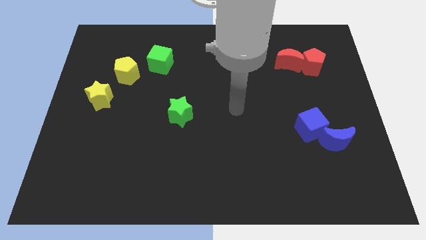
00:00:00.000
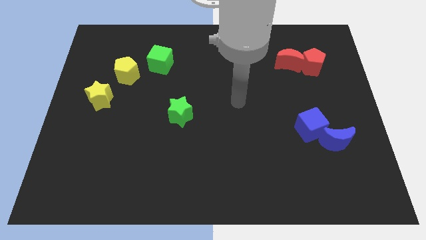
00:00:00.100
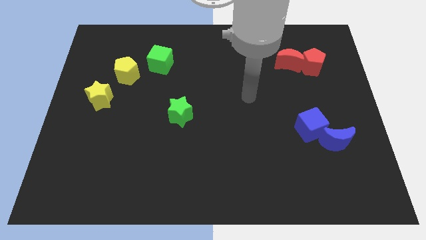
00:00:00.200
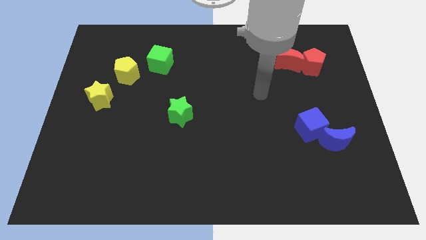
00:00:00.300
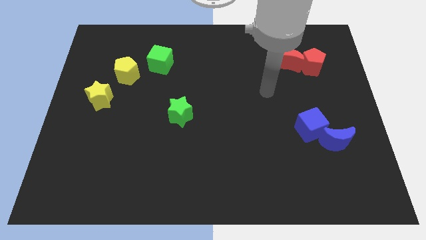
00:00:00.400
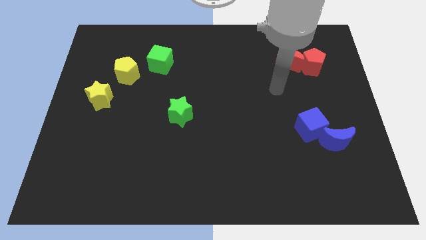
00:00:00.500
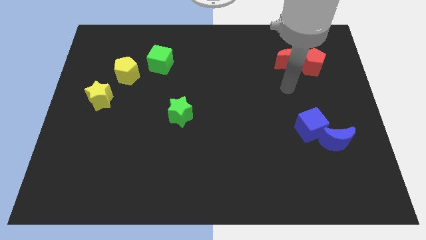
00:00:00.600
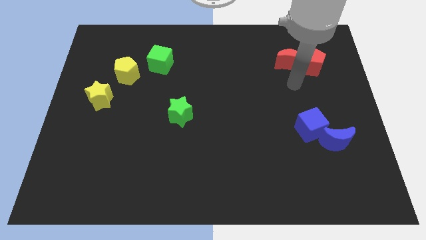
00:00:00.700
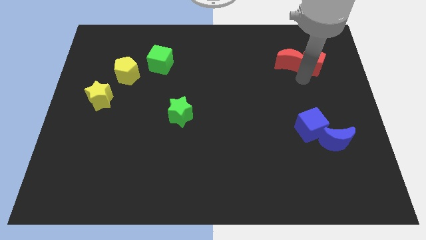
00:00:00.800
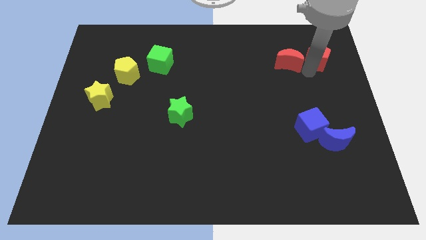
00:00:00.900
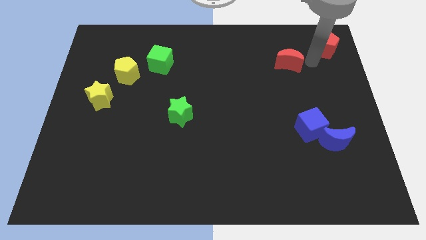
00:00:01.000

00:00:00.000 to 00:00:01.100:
move the red moon away from the red pentagon

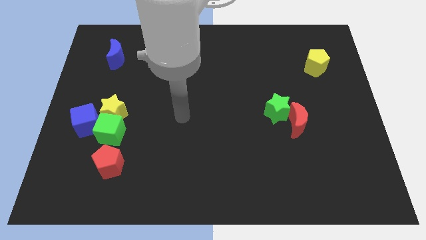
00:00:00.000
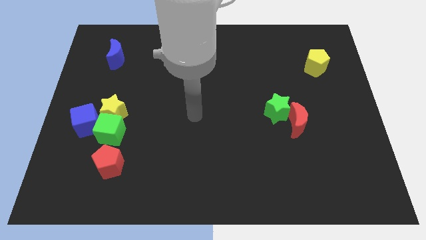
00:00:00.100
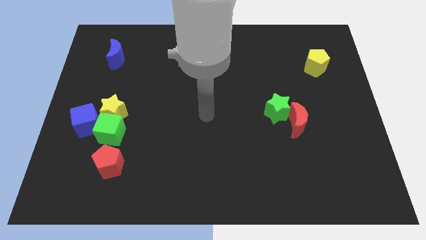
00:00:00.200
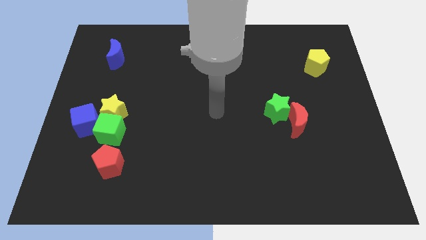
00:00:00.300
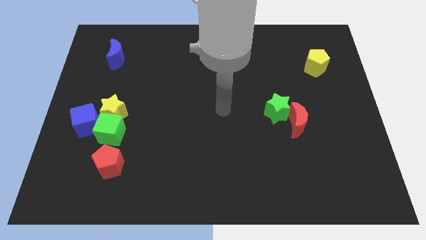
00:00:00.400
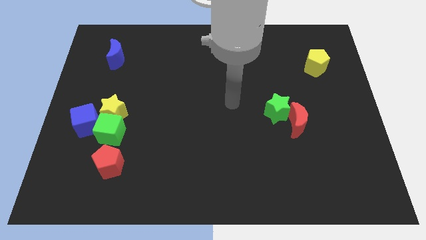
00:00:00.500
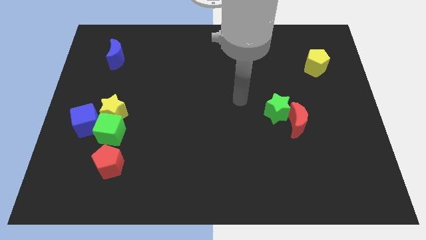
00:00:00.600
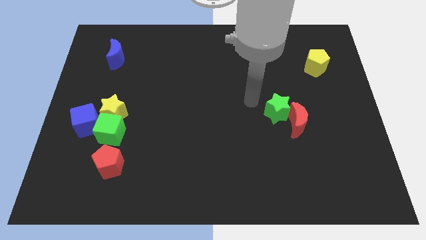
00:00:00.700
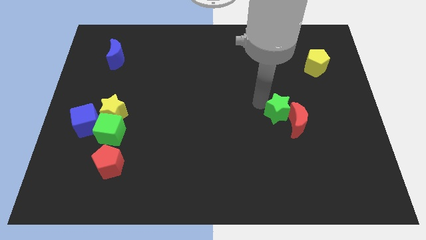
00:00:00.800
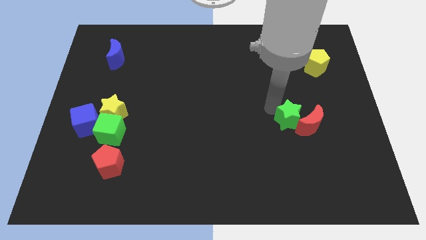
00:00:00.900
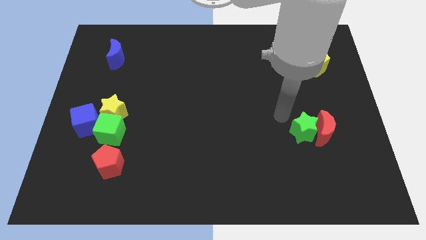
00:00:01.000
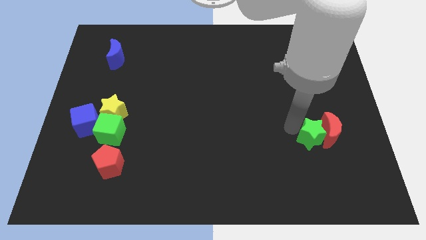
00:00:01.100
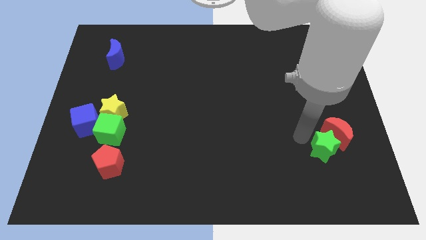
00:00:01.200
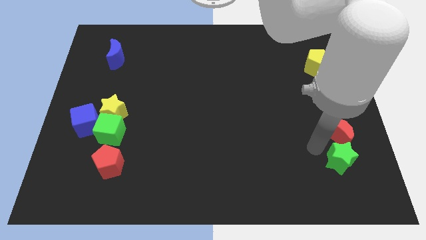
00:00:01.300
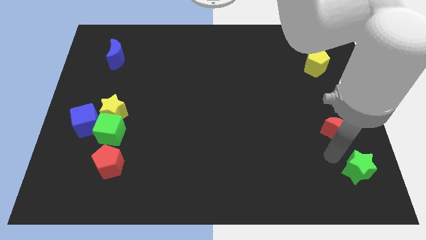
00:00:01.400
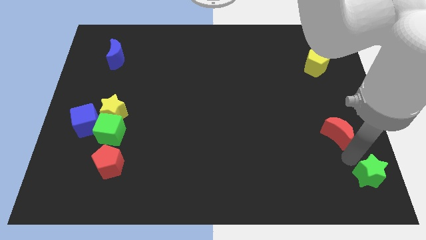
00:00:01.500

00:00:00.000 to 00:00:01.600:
pull the red moon apart from the green star

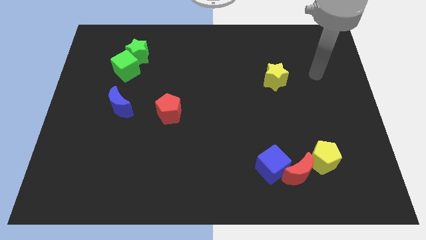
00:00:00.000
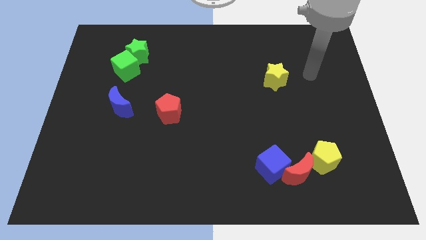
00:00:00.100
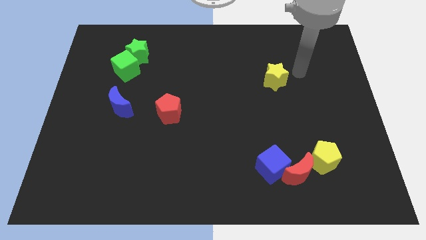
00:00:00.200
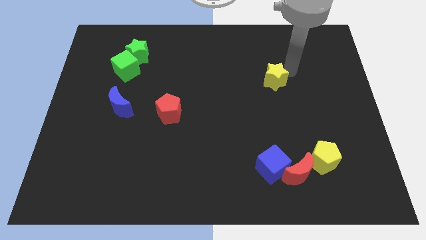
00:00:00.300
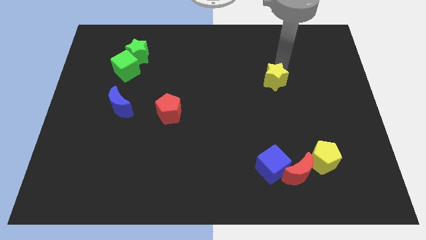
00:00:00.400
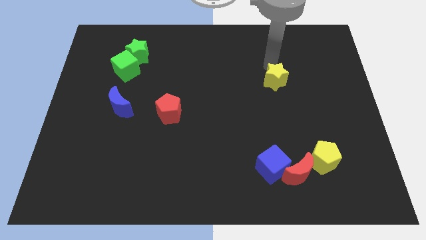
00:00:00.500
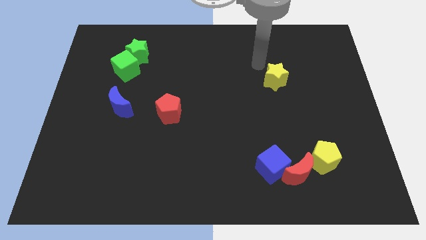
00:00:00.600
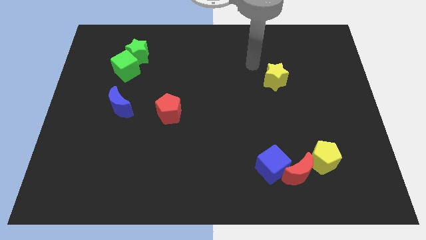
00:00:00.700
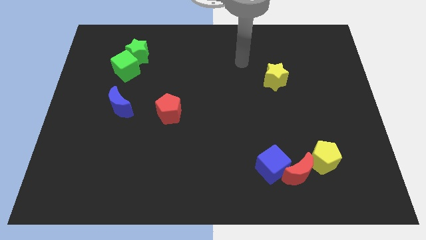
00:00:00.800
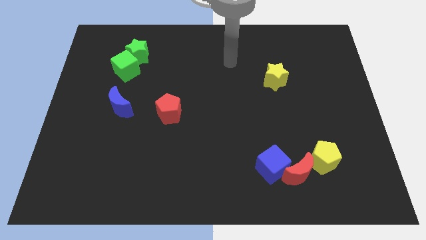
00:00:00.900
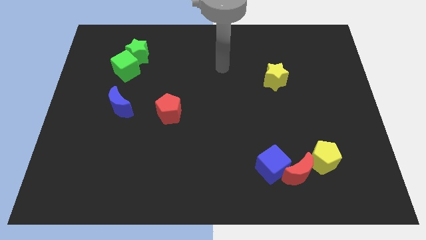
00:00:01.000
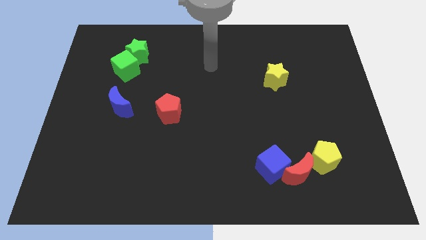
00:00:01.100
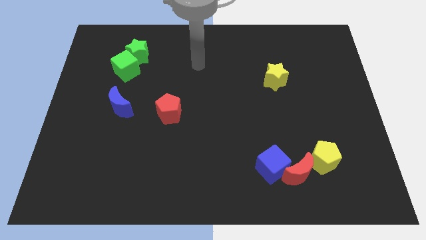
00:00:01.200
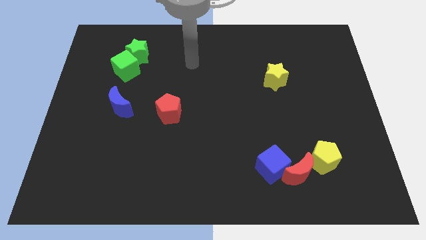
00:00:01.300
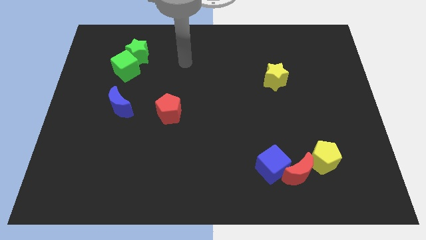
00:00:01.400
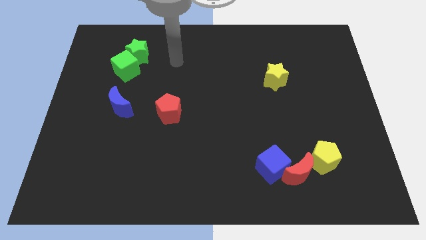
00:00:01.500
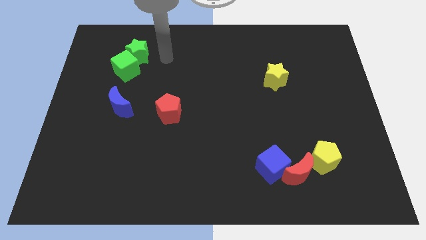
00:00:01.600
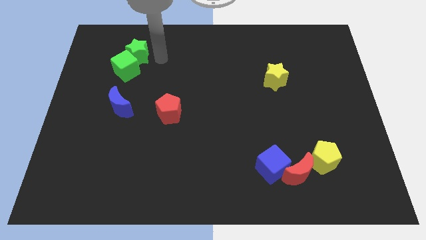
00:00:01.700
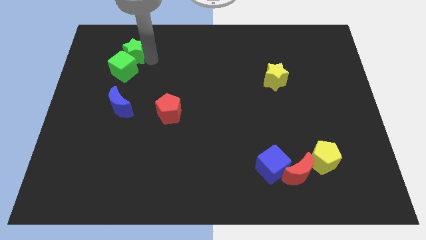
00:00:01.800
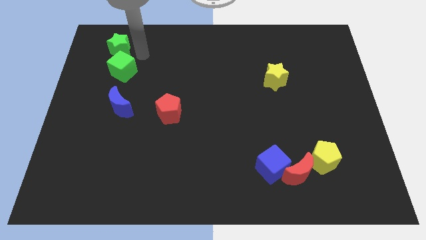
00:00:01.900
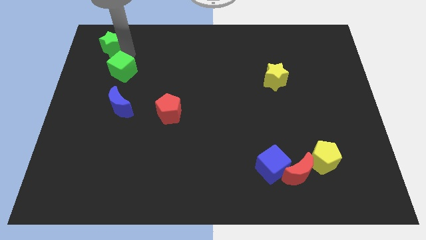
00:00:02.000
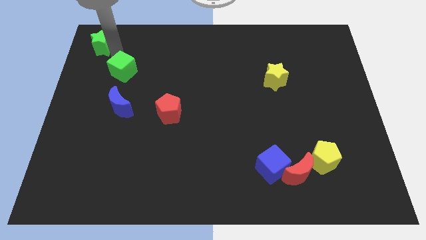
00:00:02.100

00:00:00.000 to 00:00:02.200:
pull the green cube apart from the green star

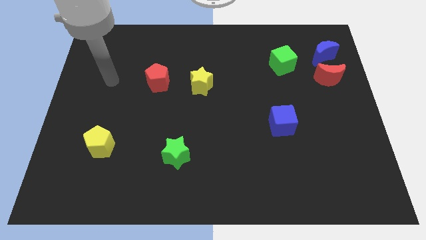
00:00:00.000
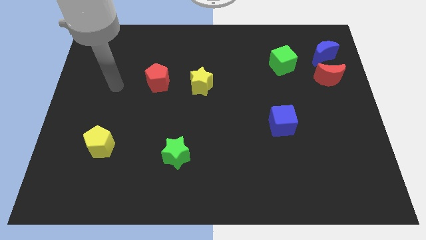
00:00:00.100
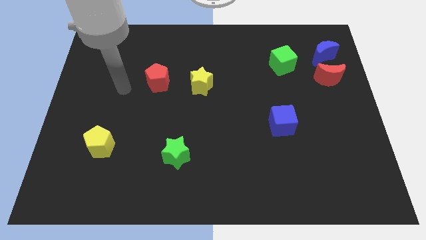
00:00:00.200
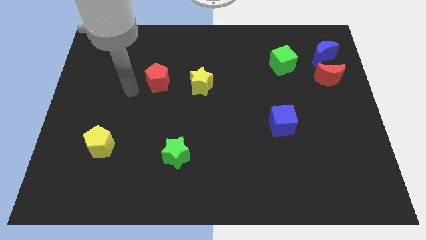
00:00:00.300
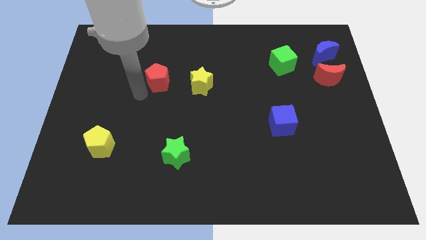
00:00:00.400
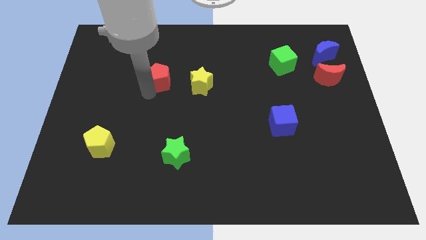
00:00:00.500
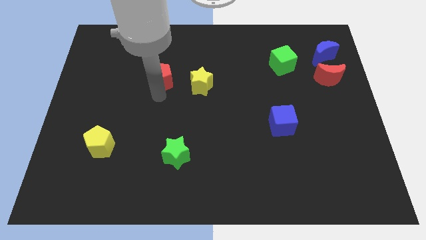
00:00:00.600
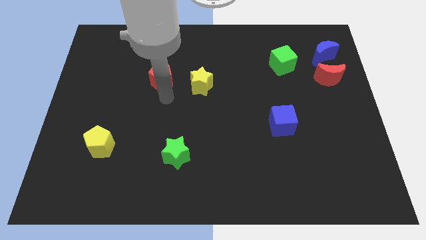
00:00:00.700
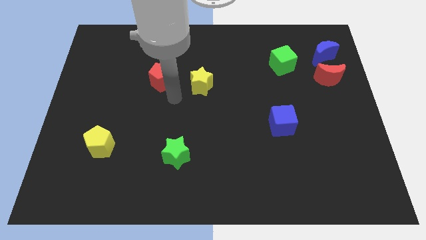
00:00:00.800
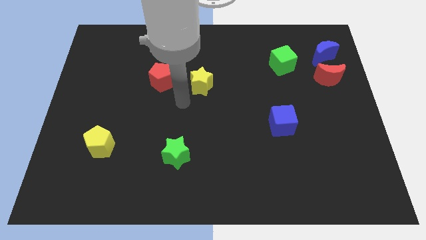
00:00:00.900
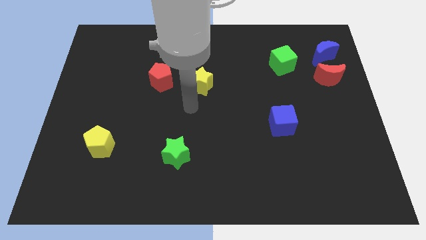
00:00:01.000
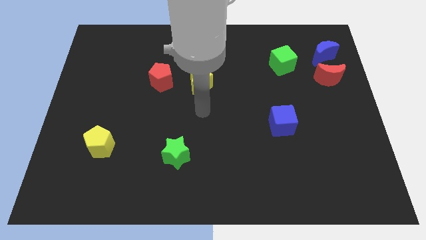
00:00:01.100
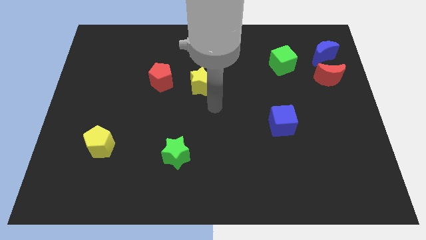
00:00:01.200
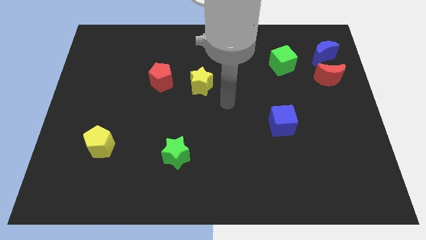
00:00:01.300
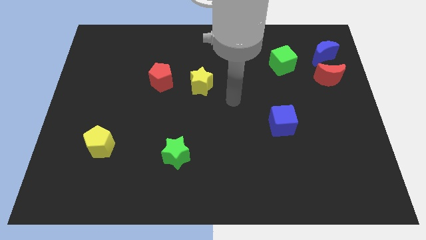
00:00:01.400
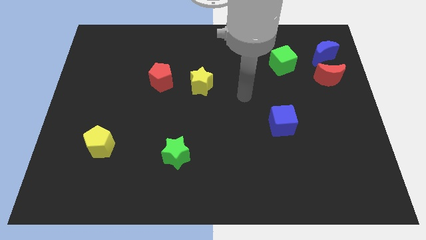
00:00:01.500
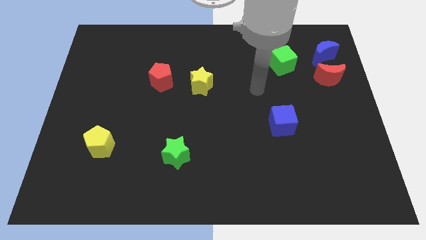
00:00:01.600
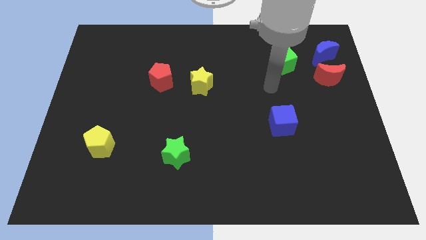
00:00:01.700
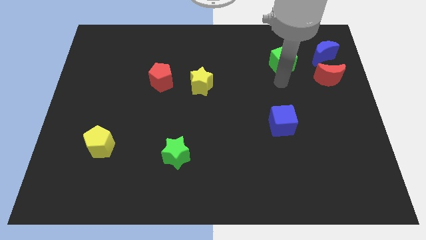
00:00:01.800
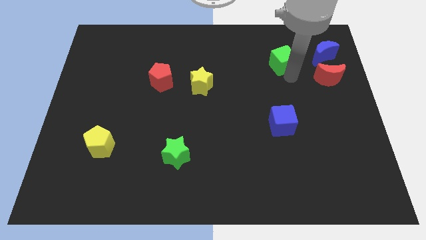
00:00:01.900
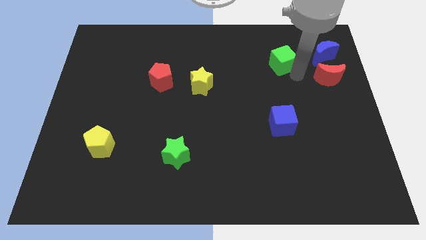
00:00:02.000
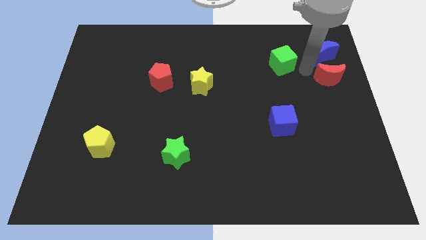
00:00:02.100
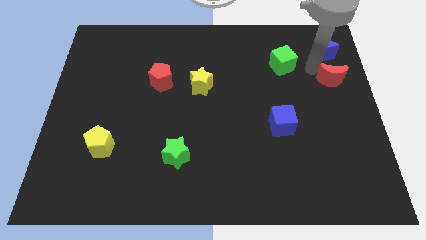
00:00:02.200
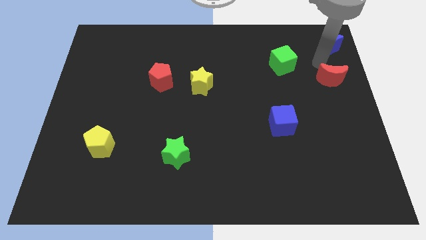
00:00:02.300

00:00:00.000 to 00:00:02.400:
move the red moon away from the blue moon

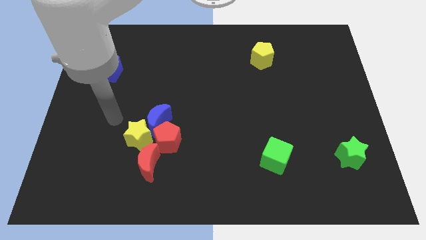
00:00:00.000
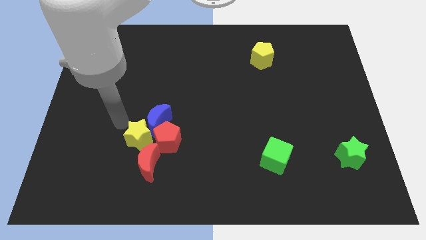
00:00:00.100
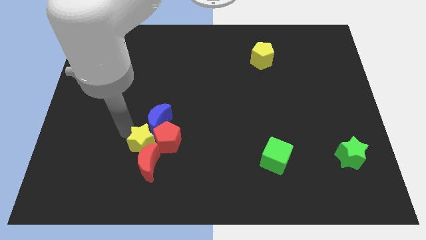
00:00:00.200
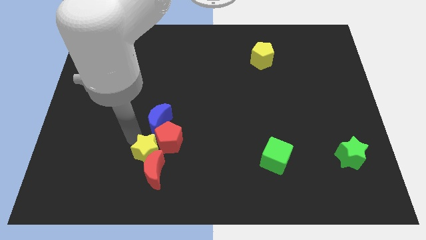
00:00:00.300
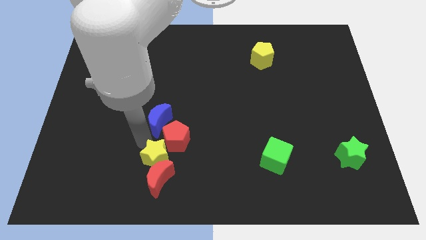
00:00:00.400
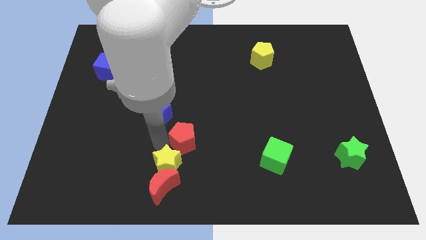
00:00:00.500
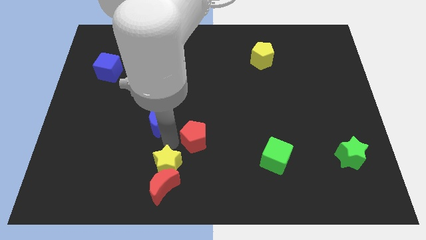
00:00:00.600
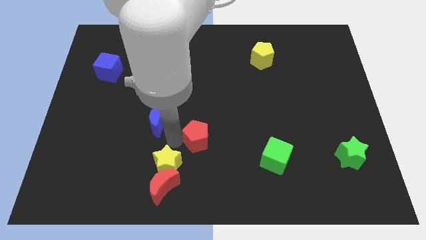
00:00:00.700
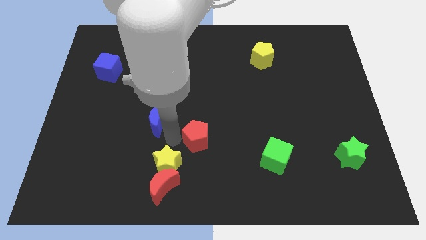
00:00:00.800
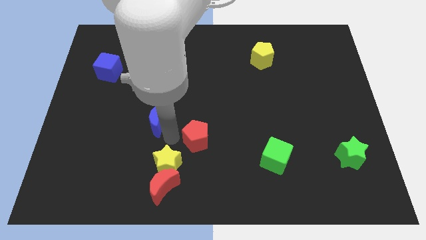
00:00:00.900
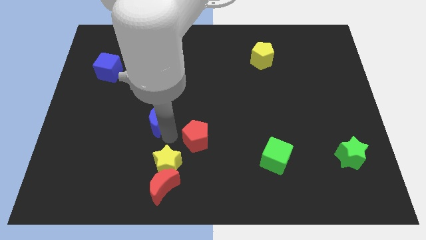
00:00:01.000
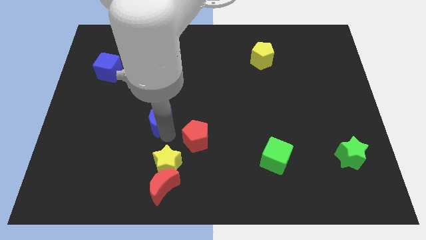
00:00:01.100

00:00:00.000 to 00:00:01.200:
separate the blue moon from the yellow star and red pentagon

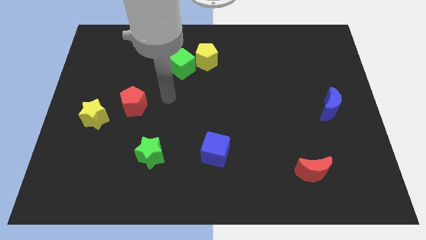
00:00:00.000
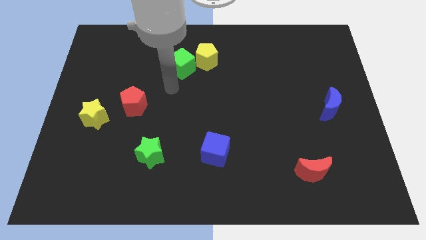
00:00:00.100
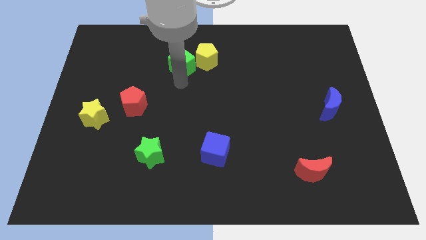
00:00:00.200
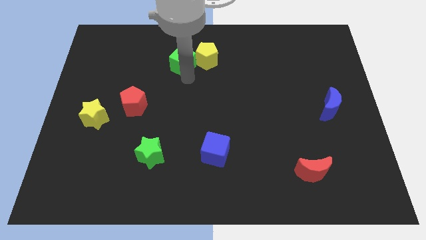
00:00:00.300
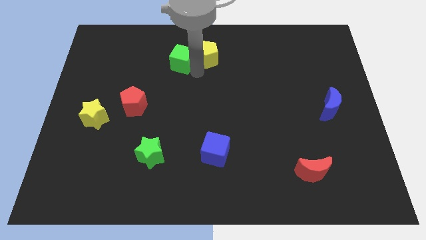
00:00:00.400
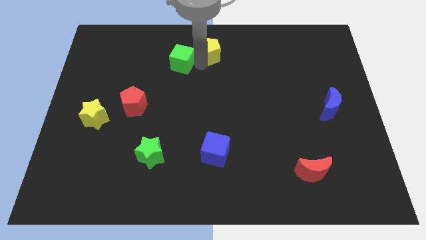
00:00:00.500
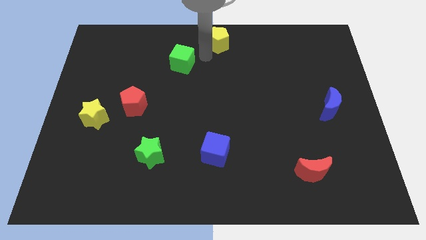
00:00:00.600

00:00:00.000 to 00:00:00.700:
move the green cube away from the yellow pentagon

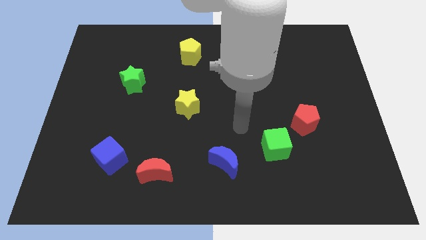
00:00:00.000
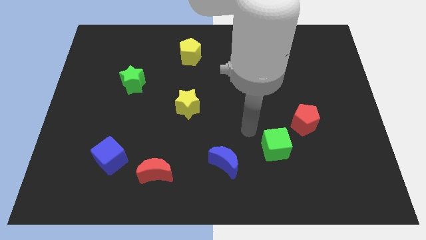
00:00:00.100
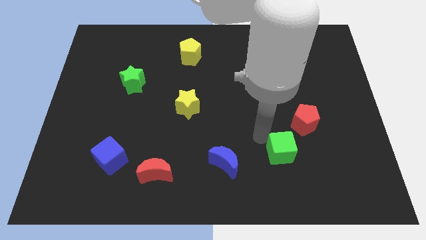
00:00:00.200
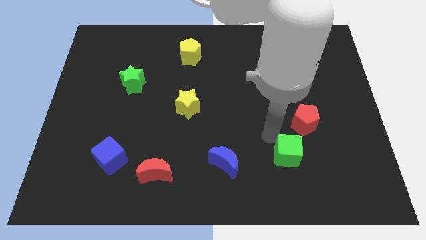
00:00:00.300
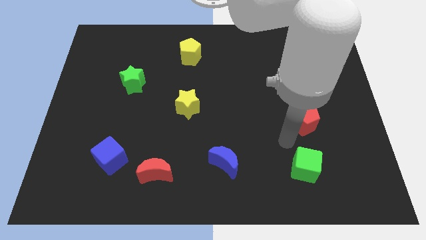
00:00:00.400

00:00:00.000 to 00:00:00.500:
separate the red pentagon from the green cube
